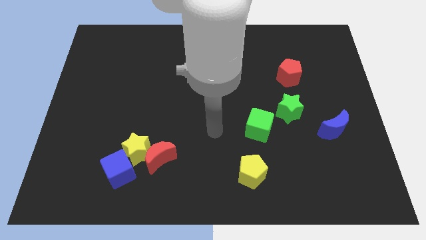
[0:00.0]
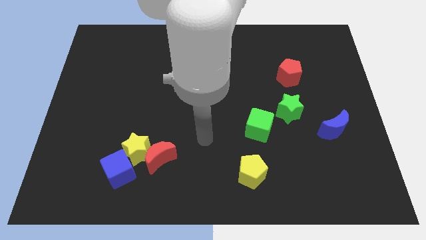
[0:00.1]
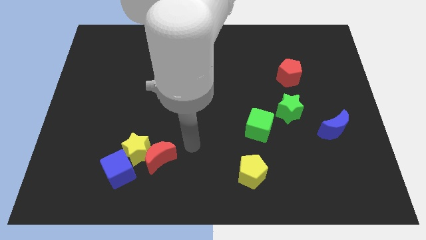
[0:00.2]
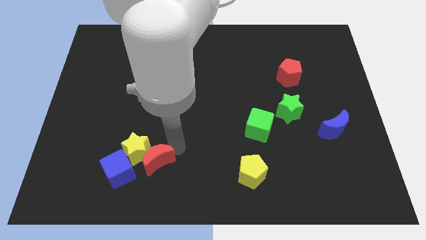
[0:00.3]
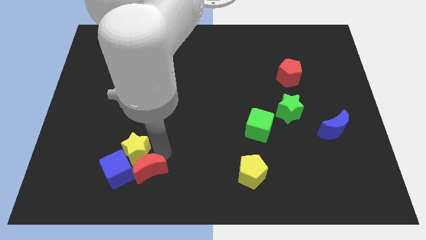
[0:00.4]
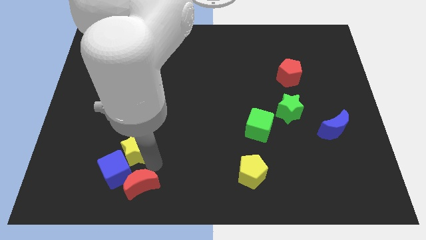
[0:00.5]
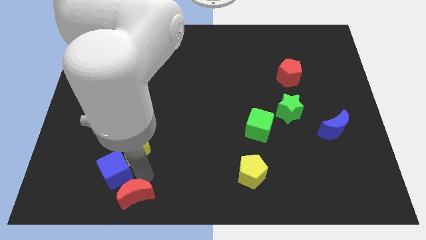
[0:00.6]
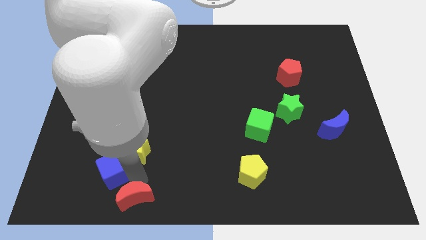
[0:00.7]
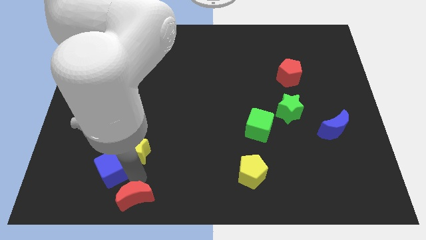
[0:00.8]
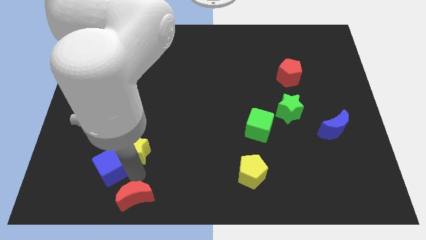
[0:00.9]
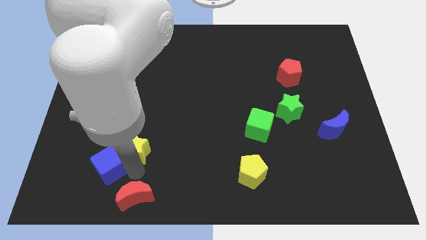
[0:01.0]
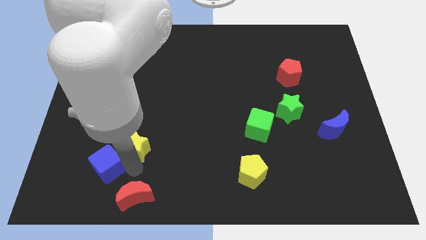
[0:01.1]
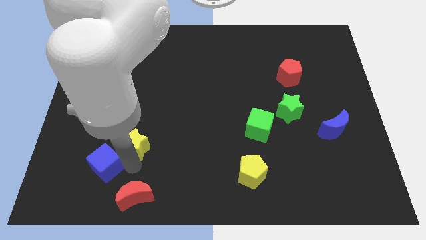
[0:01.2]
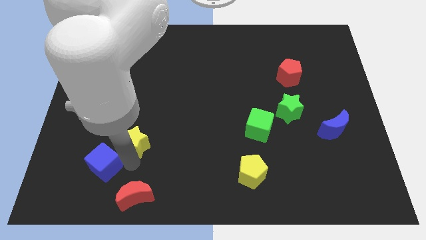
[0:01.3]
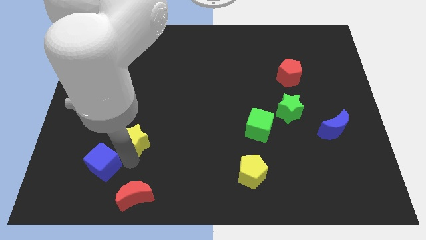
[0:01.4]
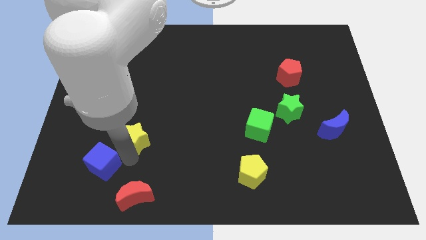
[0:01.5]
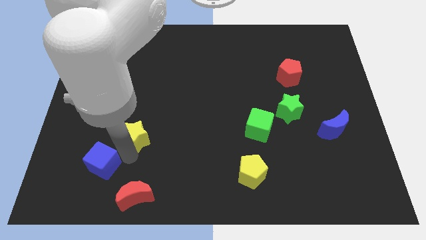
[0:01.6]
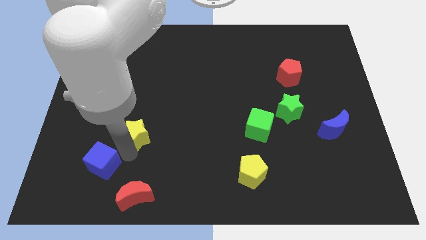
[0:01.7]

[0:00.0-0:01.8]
move the yellow star away from the red moon and blue cube

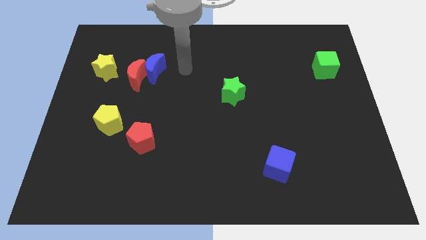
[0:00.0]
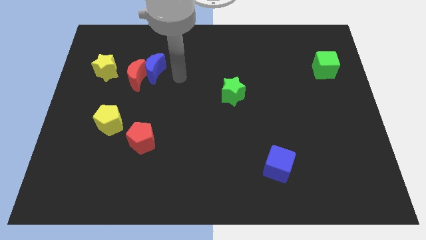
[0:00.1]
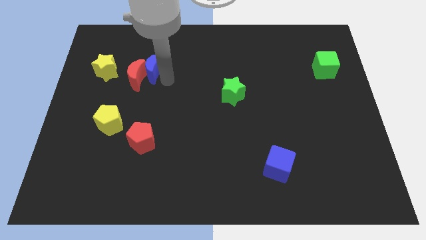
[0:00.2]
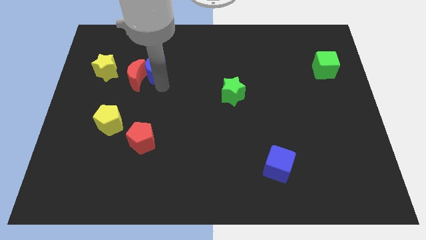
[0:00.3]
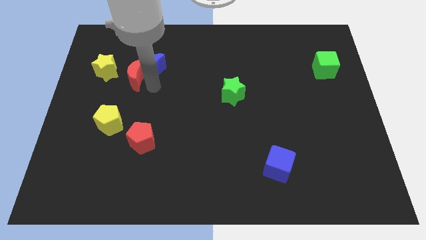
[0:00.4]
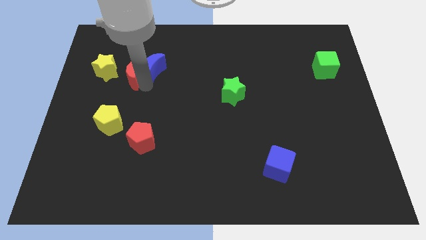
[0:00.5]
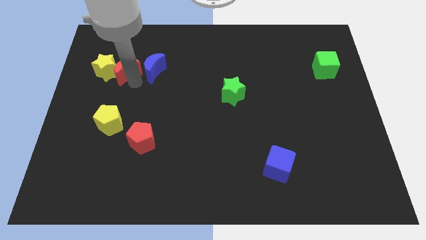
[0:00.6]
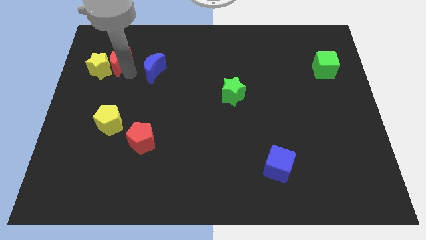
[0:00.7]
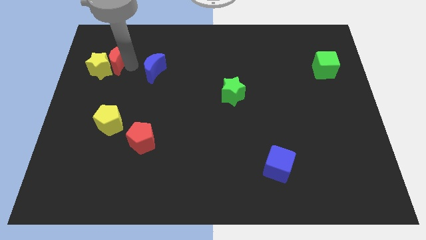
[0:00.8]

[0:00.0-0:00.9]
separate the blue moon from the red moon

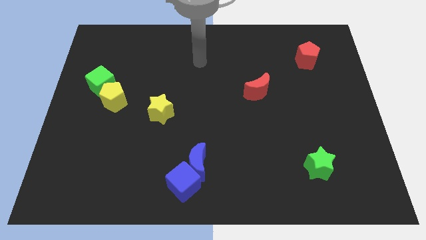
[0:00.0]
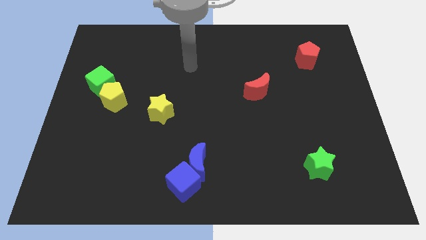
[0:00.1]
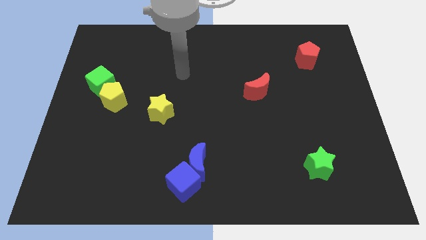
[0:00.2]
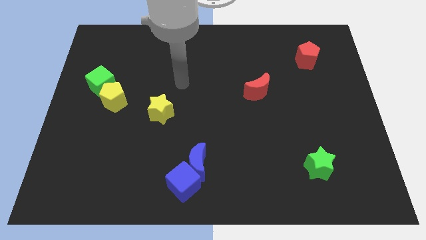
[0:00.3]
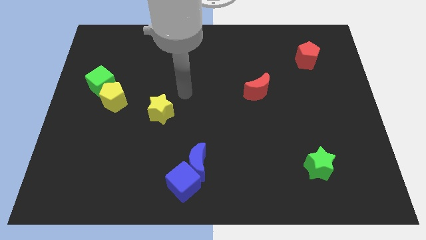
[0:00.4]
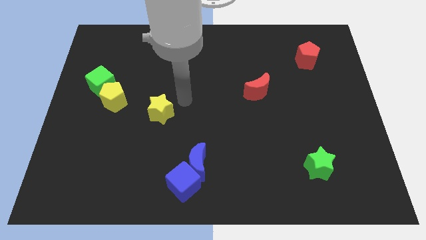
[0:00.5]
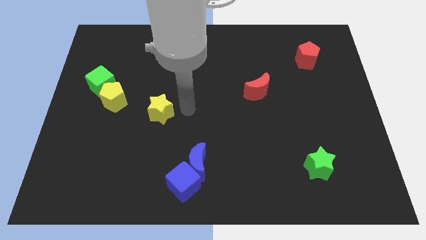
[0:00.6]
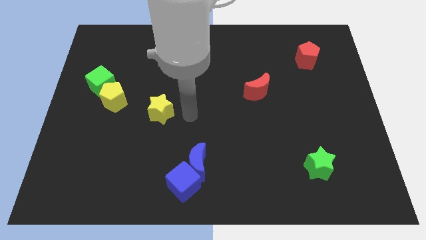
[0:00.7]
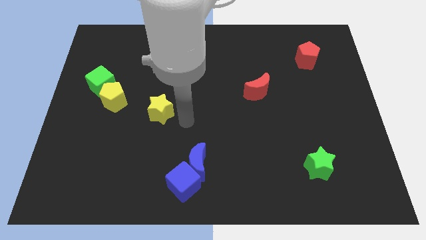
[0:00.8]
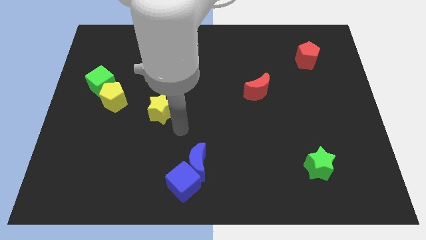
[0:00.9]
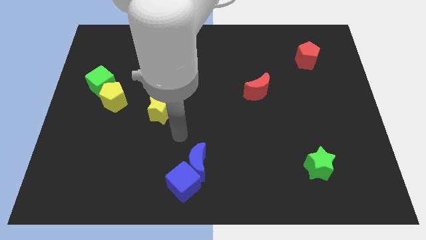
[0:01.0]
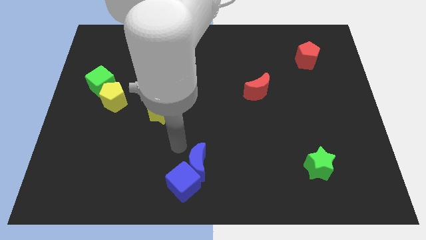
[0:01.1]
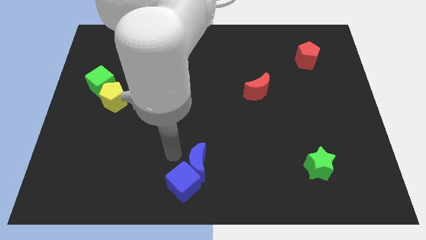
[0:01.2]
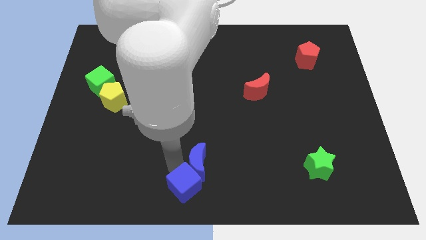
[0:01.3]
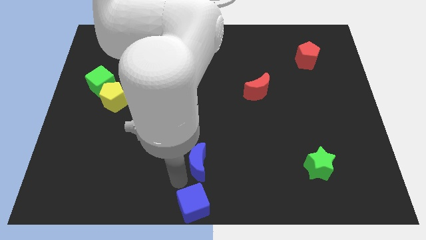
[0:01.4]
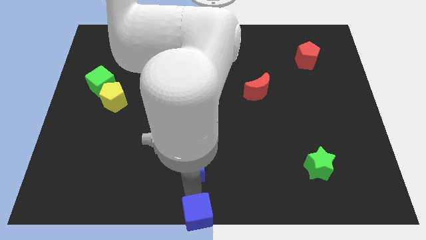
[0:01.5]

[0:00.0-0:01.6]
pull the blue moon apart from the blue cube

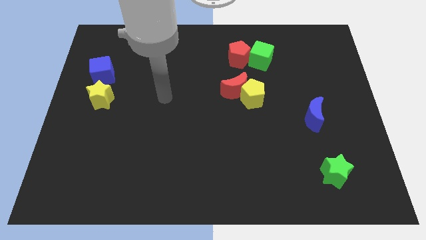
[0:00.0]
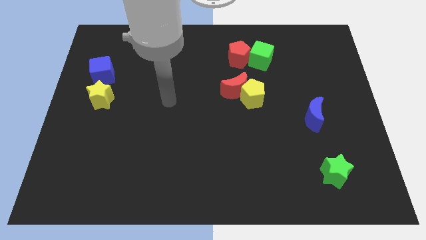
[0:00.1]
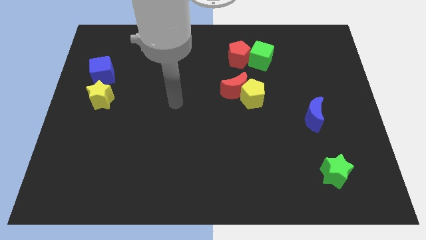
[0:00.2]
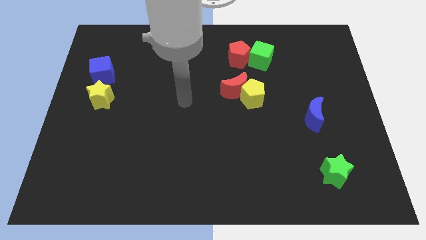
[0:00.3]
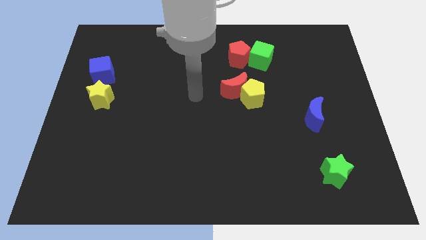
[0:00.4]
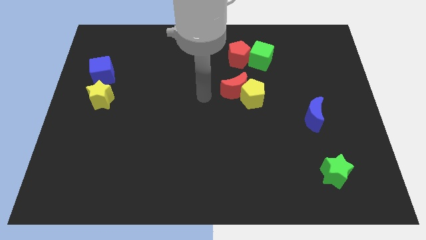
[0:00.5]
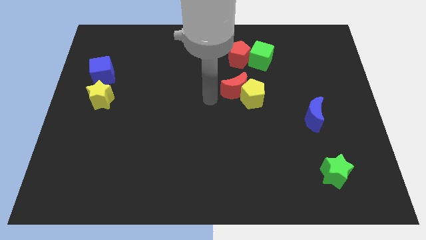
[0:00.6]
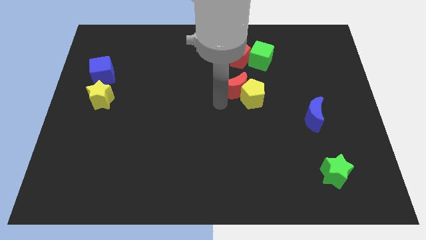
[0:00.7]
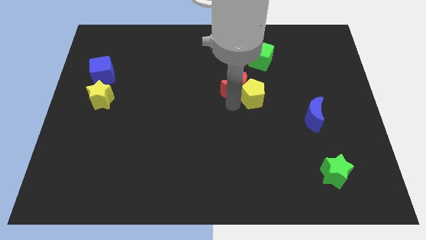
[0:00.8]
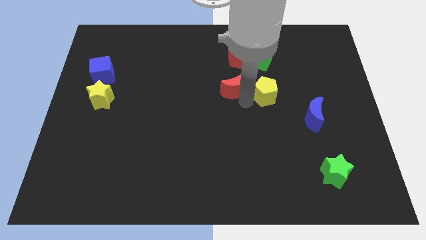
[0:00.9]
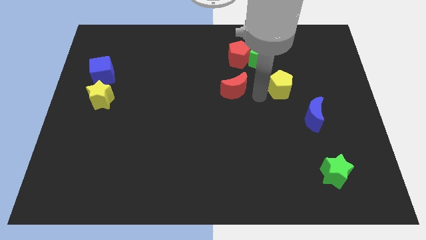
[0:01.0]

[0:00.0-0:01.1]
pull the red moon apart from the yellow pentagon

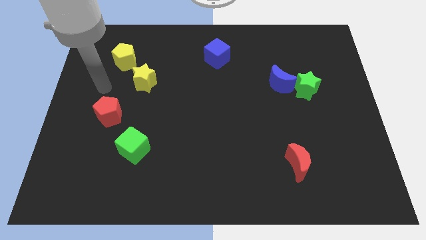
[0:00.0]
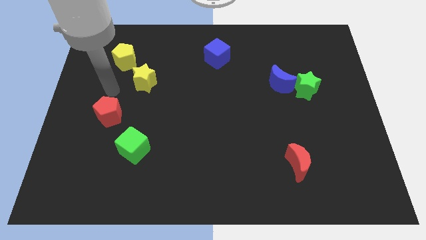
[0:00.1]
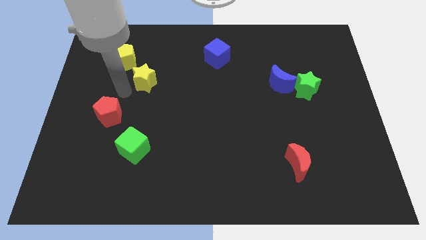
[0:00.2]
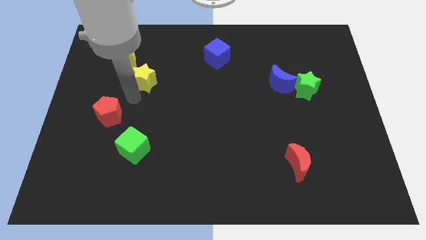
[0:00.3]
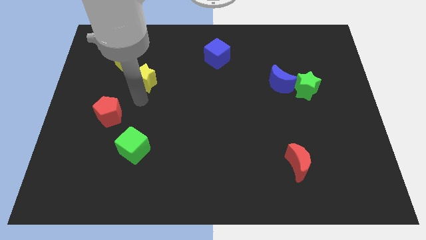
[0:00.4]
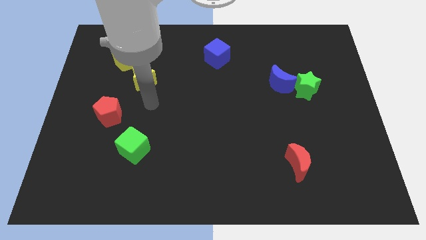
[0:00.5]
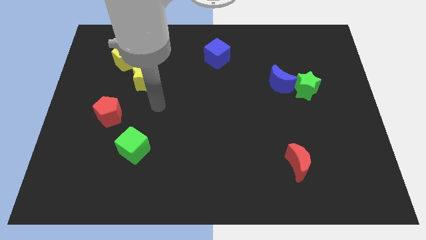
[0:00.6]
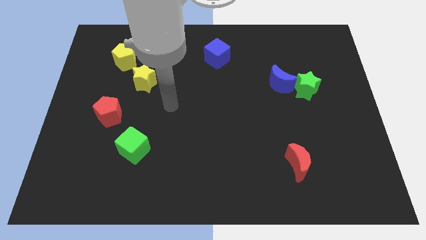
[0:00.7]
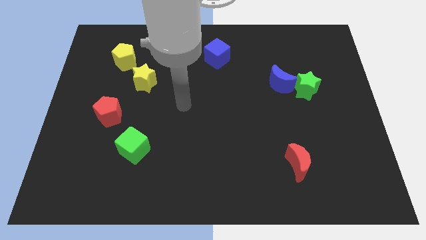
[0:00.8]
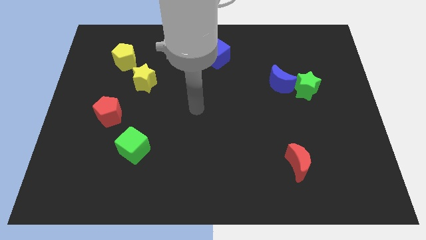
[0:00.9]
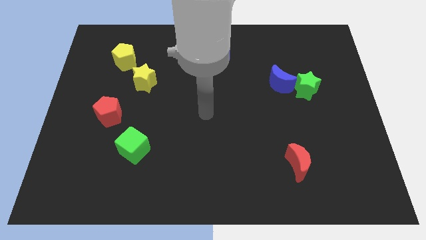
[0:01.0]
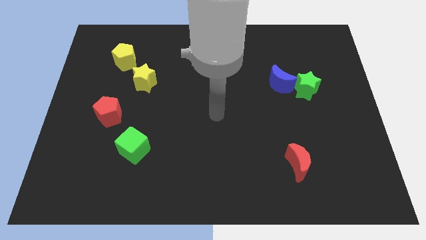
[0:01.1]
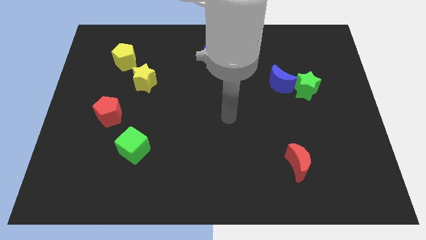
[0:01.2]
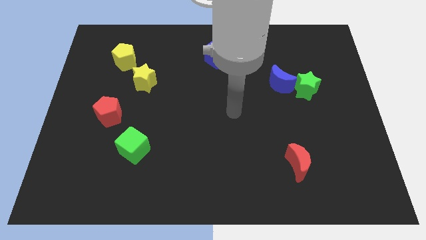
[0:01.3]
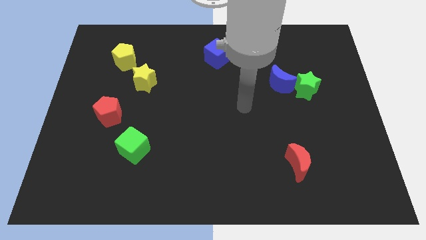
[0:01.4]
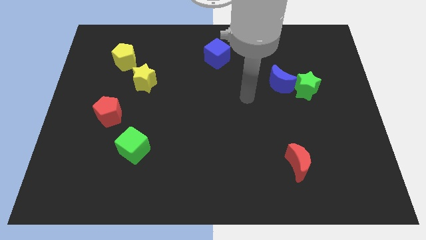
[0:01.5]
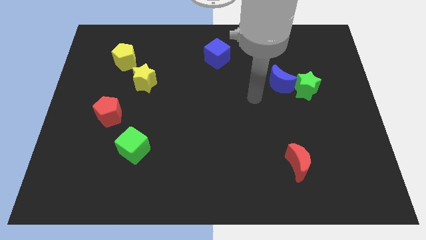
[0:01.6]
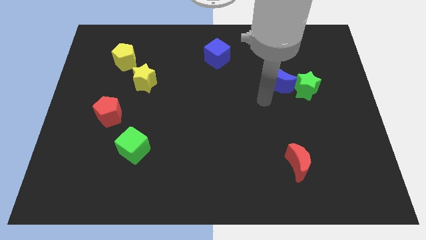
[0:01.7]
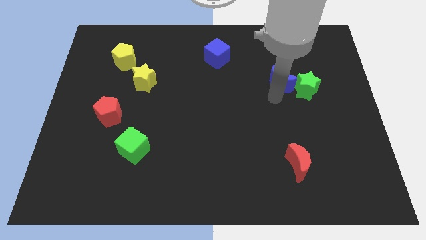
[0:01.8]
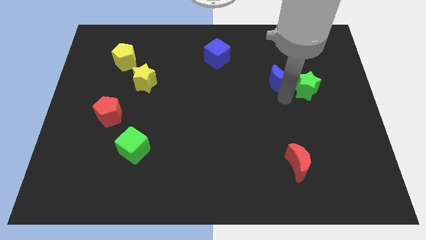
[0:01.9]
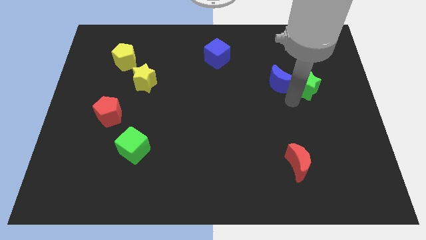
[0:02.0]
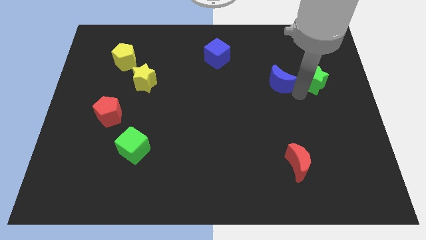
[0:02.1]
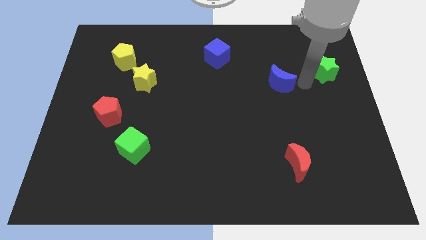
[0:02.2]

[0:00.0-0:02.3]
pull the blue moon apart from the green star

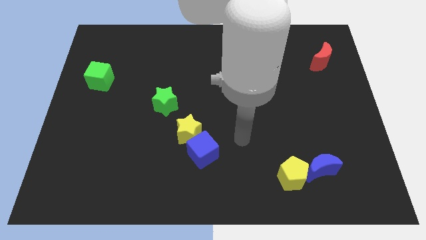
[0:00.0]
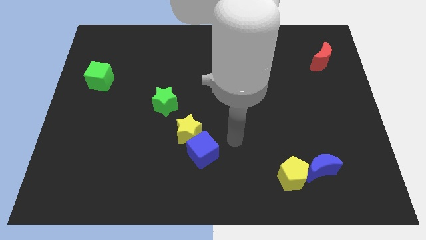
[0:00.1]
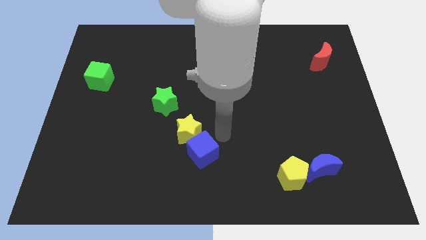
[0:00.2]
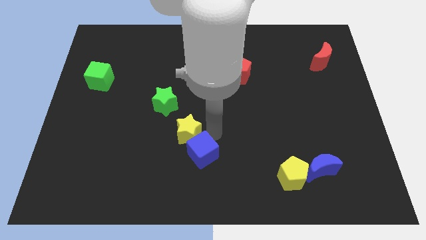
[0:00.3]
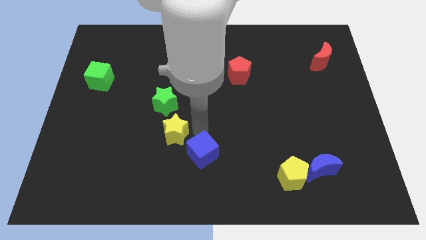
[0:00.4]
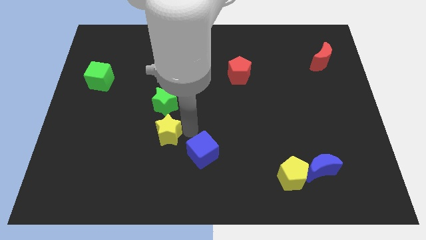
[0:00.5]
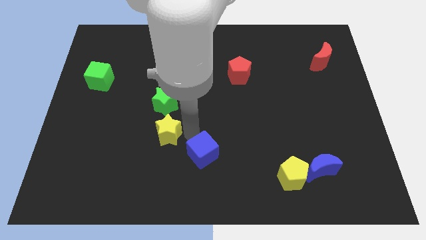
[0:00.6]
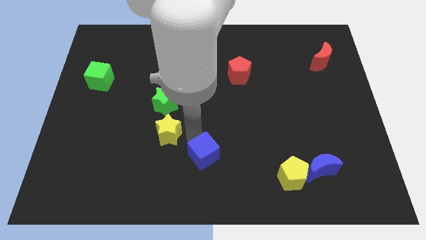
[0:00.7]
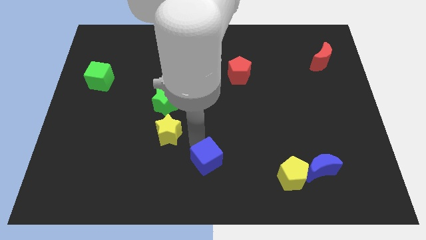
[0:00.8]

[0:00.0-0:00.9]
separate the blue cube from the yellow star

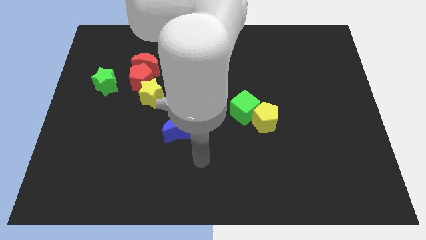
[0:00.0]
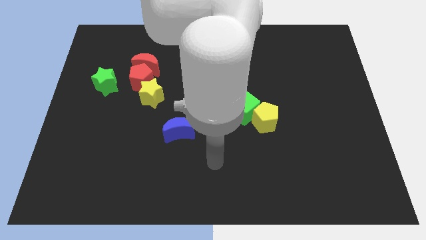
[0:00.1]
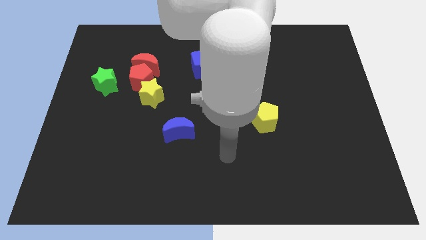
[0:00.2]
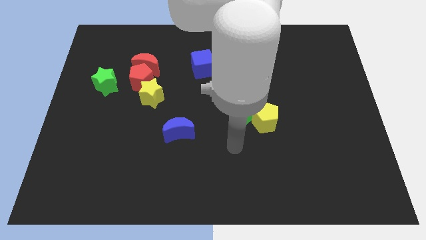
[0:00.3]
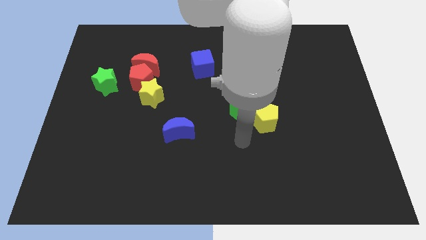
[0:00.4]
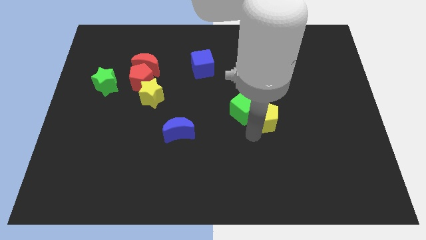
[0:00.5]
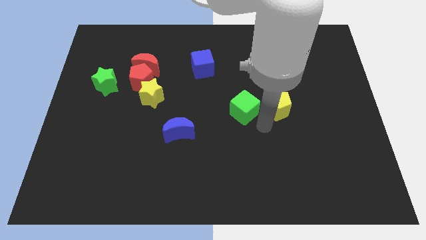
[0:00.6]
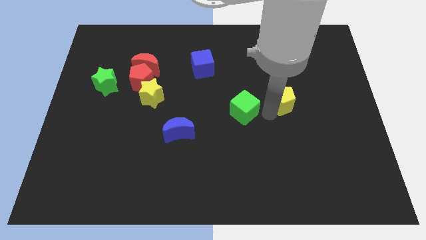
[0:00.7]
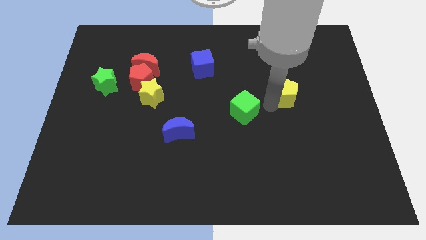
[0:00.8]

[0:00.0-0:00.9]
pull the green cube apart from the yellow pentagon
